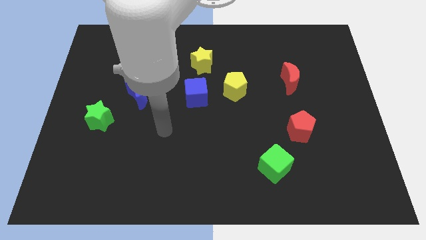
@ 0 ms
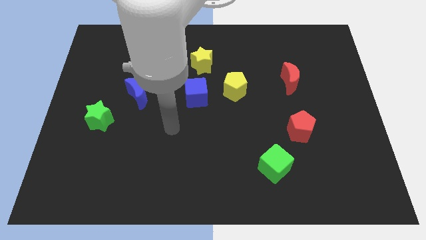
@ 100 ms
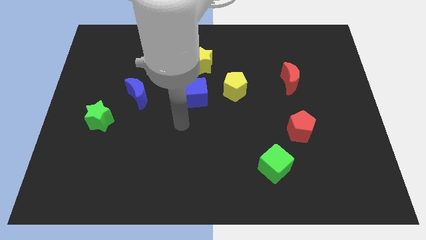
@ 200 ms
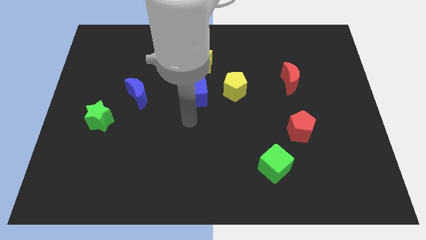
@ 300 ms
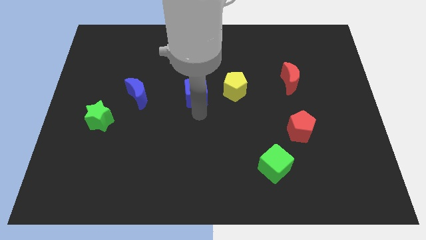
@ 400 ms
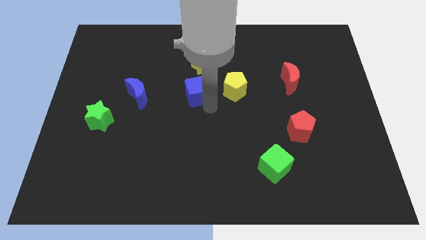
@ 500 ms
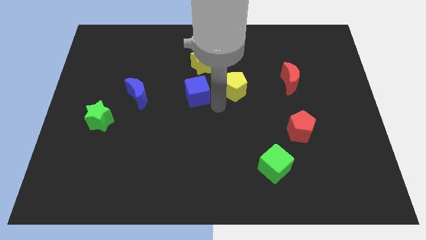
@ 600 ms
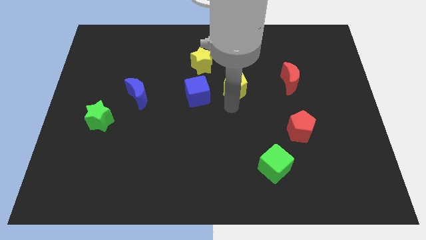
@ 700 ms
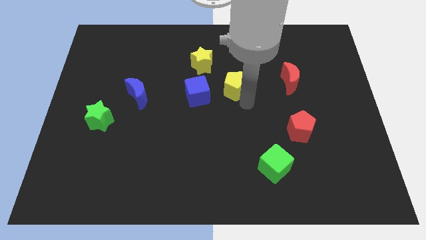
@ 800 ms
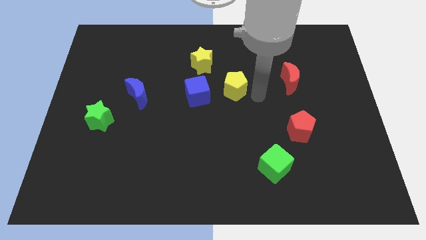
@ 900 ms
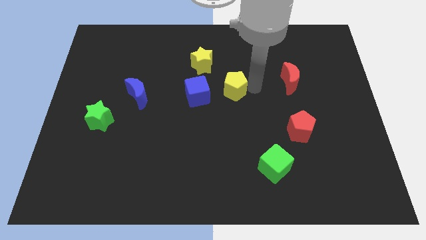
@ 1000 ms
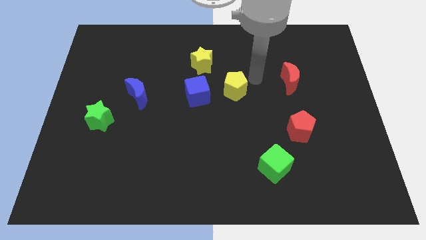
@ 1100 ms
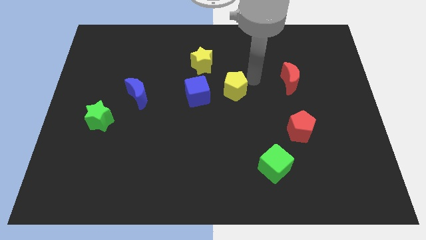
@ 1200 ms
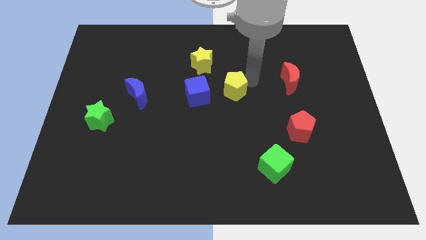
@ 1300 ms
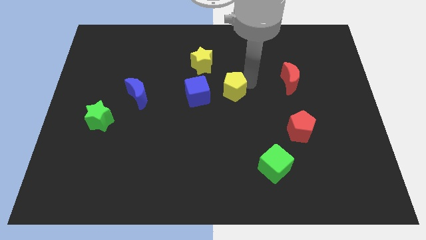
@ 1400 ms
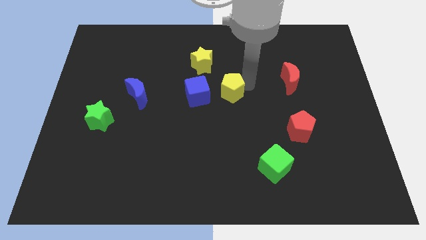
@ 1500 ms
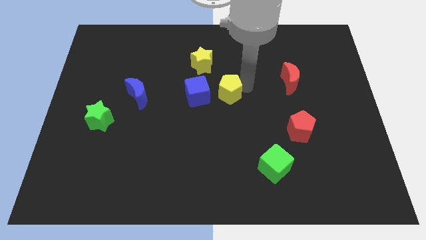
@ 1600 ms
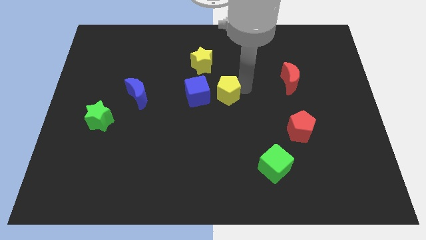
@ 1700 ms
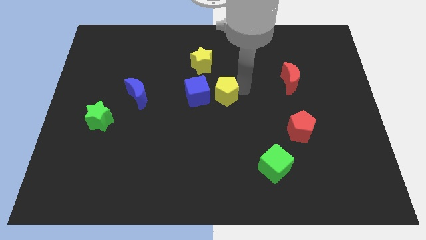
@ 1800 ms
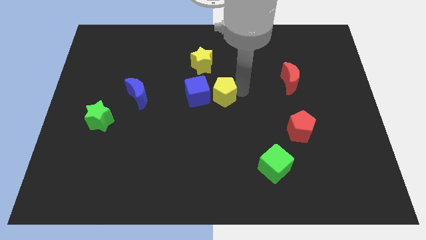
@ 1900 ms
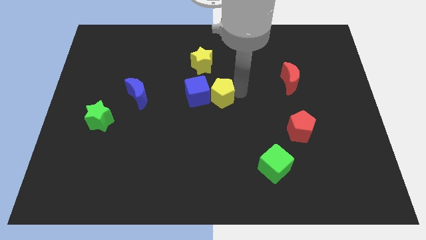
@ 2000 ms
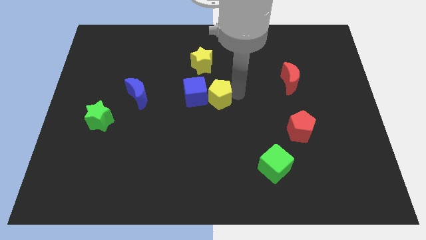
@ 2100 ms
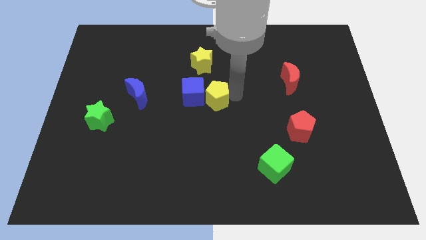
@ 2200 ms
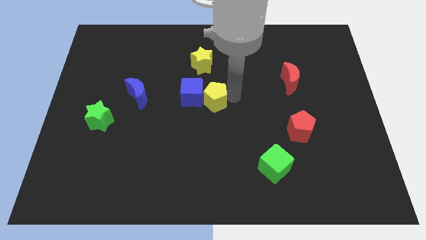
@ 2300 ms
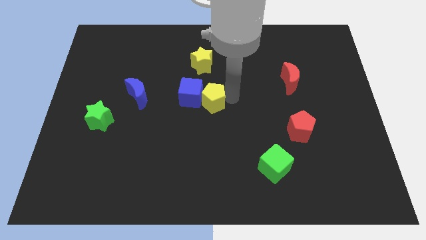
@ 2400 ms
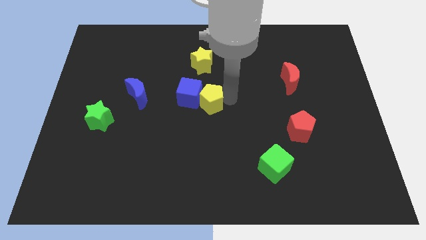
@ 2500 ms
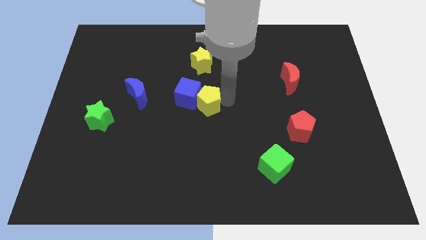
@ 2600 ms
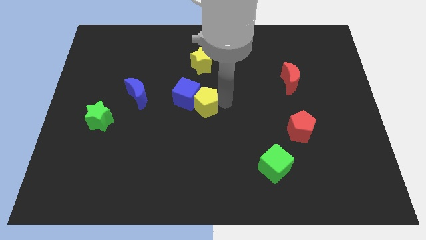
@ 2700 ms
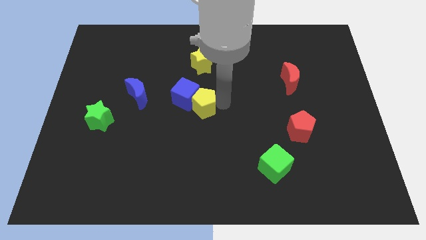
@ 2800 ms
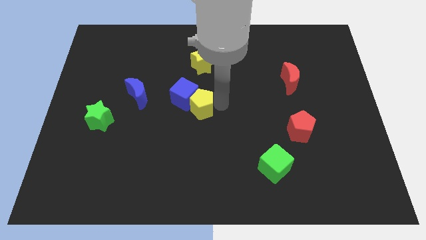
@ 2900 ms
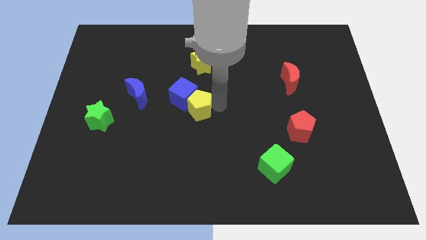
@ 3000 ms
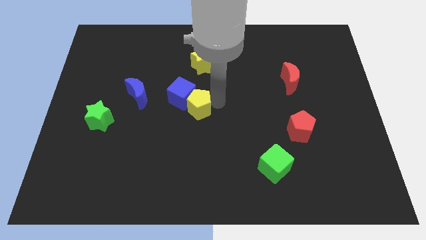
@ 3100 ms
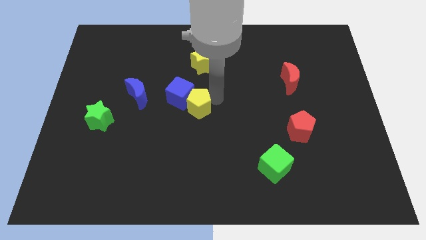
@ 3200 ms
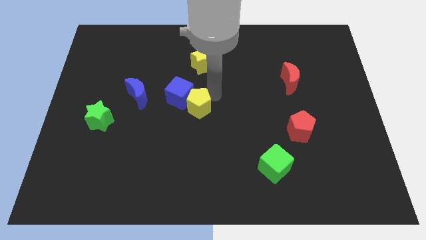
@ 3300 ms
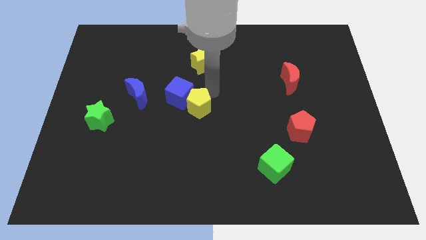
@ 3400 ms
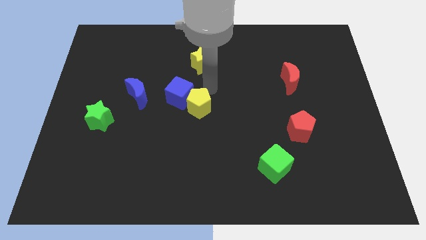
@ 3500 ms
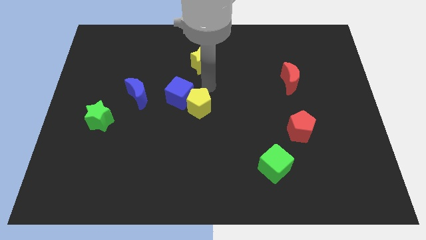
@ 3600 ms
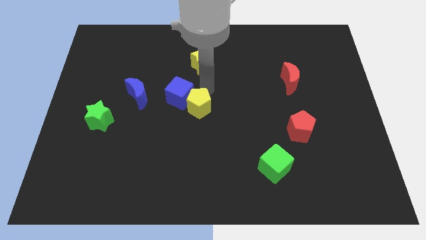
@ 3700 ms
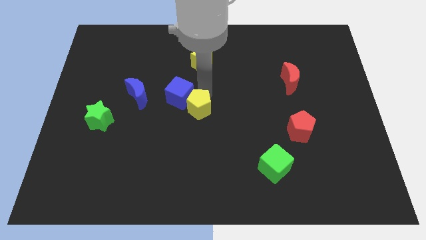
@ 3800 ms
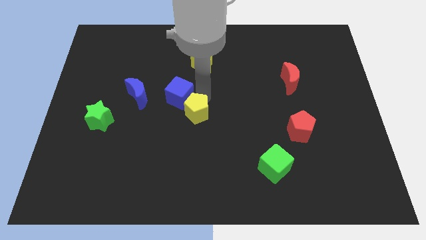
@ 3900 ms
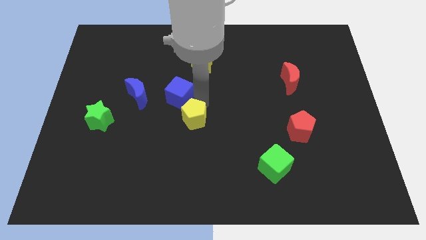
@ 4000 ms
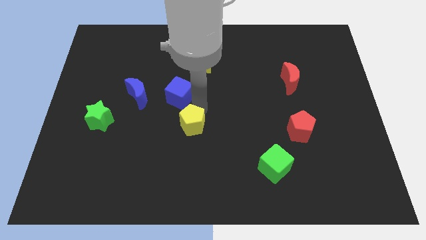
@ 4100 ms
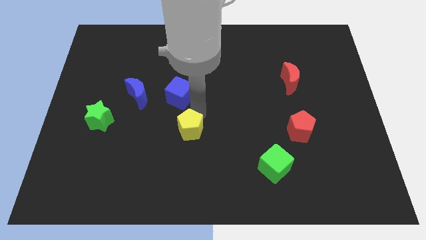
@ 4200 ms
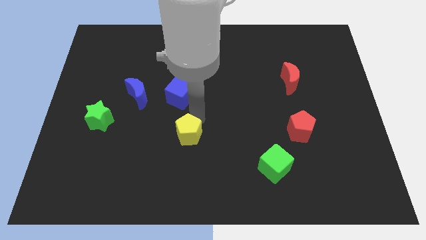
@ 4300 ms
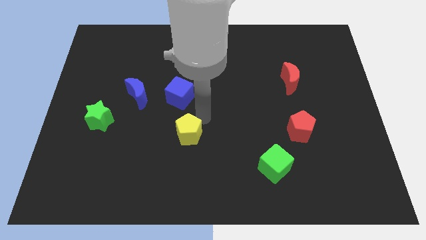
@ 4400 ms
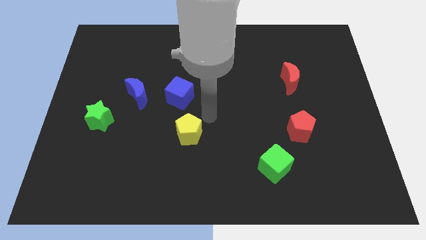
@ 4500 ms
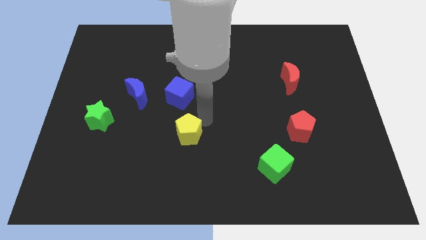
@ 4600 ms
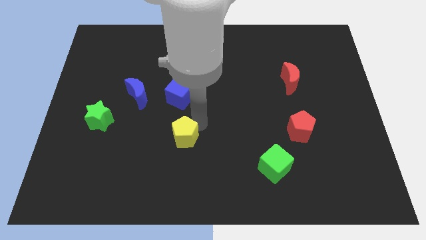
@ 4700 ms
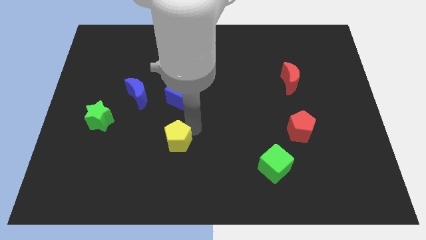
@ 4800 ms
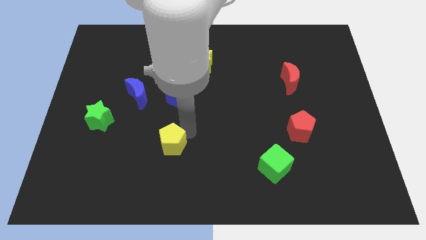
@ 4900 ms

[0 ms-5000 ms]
slide the yellow pentagon down and then to the left

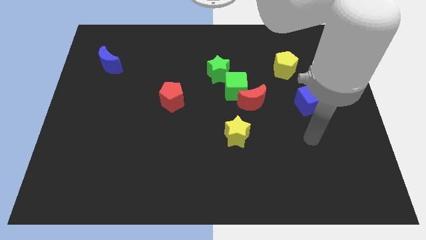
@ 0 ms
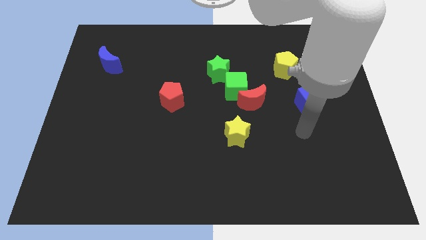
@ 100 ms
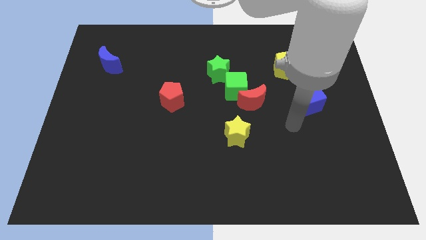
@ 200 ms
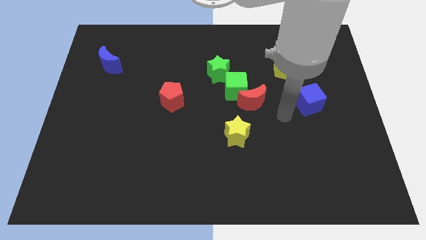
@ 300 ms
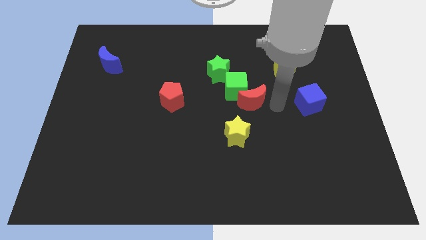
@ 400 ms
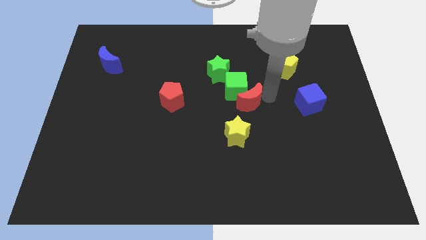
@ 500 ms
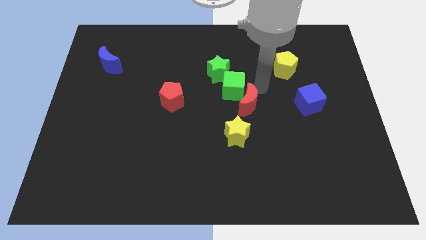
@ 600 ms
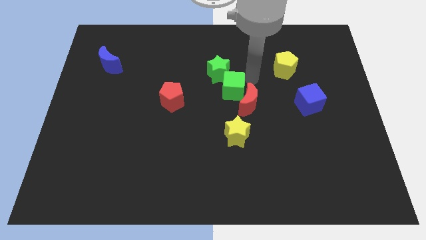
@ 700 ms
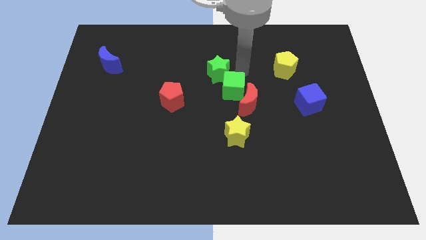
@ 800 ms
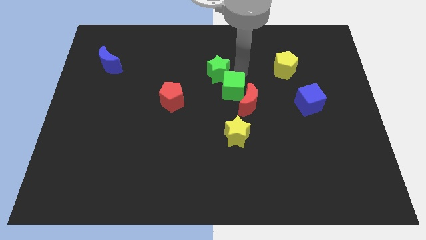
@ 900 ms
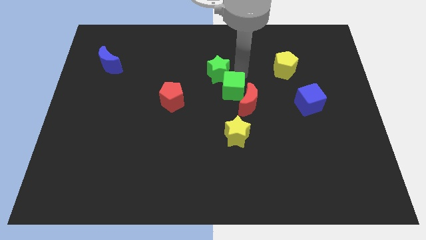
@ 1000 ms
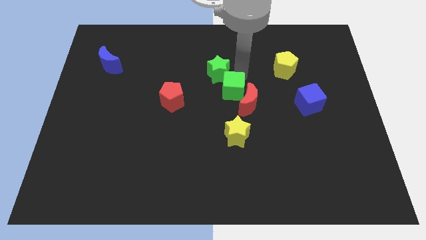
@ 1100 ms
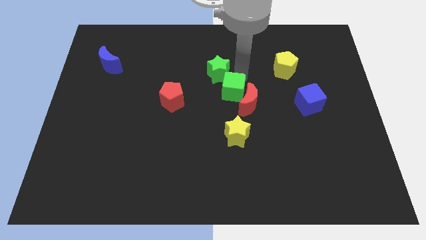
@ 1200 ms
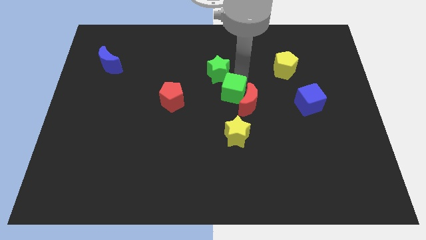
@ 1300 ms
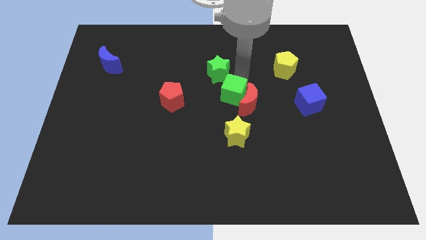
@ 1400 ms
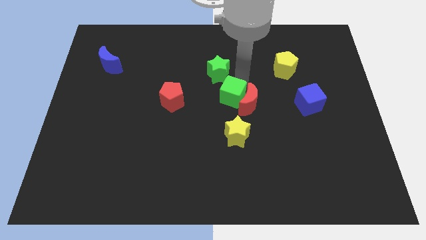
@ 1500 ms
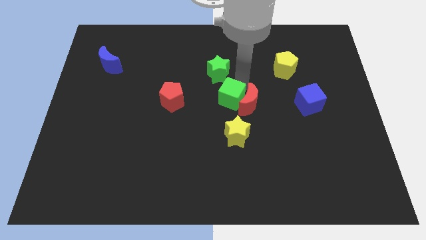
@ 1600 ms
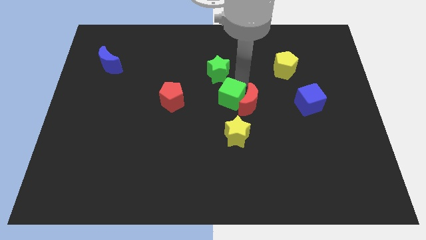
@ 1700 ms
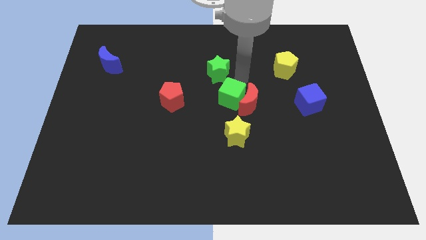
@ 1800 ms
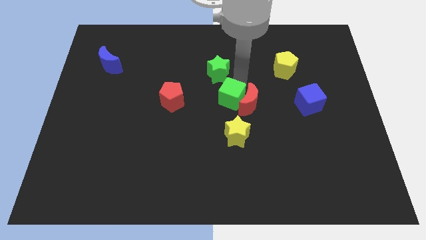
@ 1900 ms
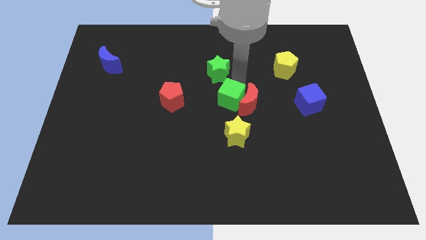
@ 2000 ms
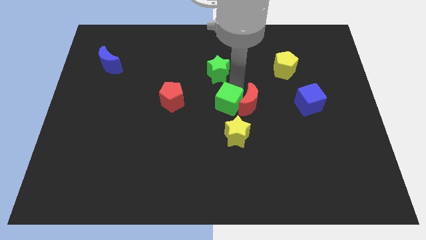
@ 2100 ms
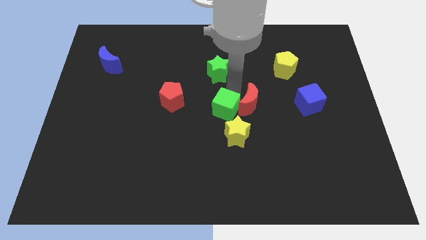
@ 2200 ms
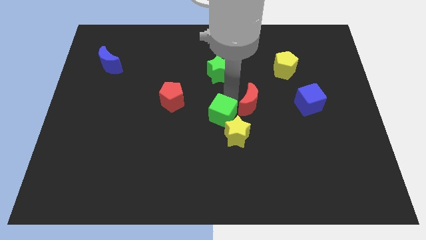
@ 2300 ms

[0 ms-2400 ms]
slightly move the green cube downwards

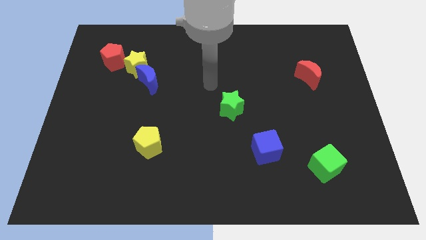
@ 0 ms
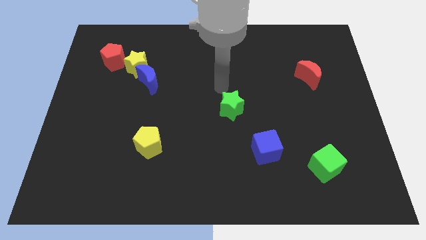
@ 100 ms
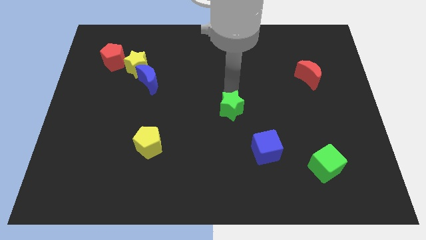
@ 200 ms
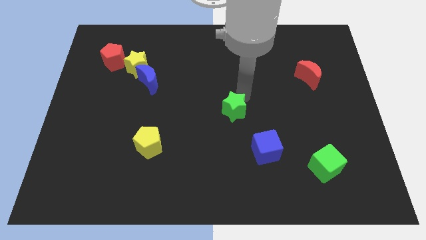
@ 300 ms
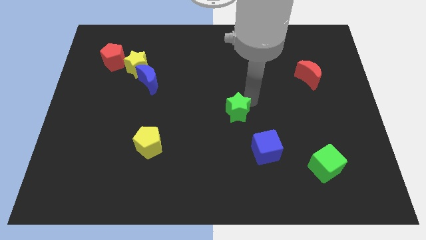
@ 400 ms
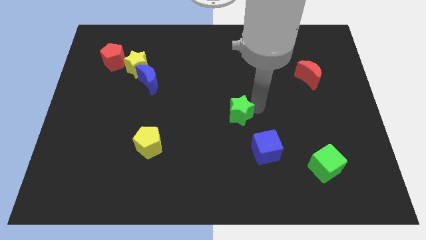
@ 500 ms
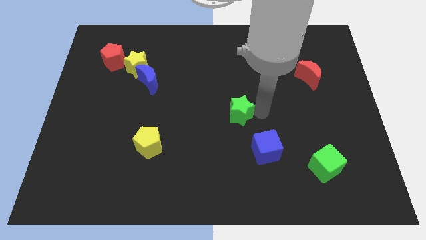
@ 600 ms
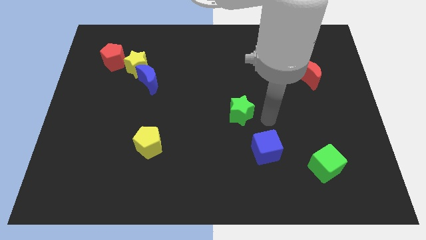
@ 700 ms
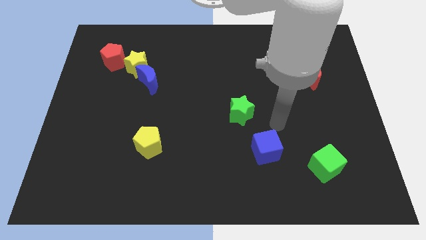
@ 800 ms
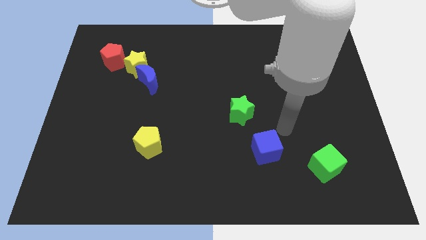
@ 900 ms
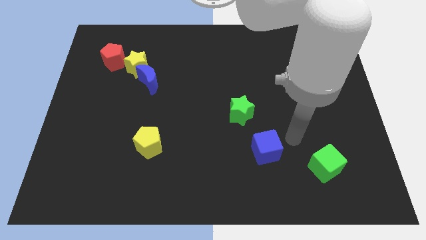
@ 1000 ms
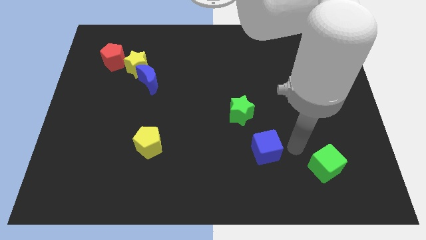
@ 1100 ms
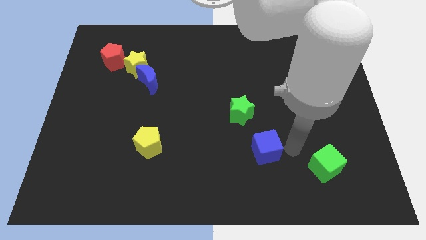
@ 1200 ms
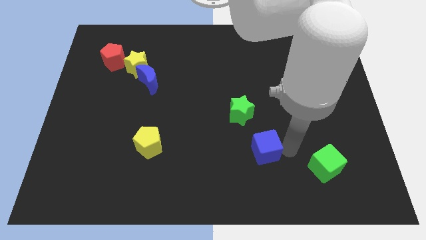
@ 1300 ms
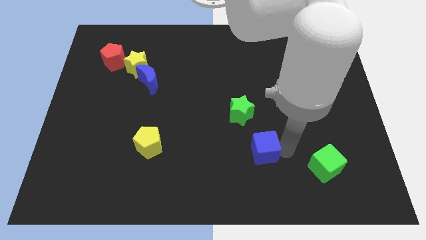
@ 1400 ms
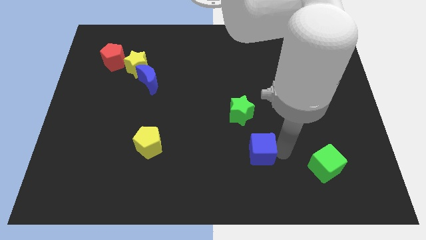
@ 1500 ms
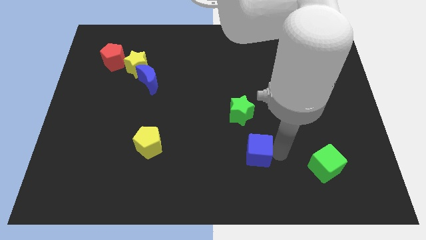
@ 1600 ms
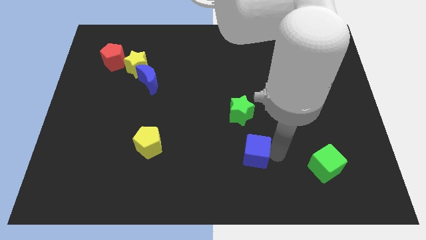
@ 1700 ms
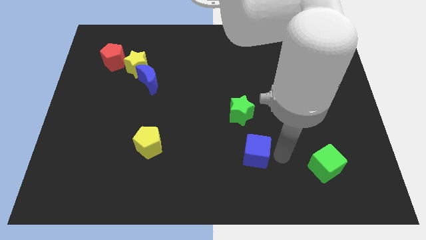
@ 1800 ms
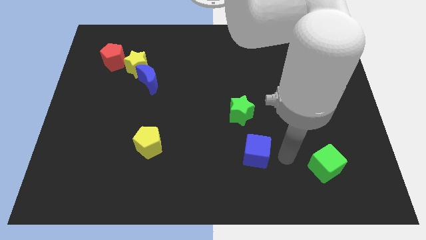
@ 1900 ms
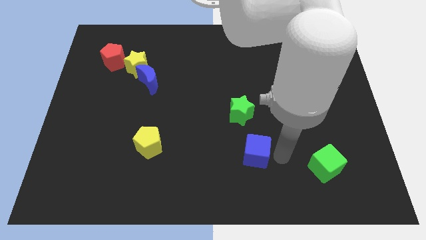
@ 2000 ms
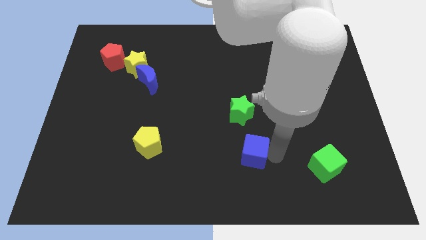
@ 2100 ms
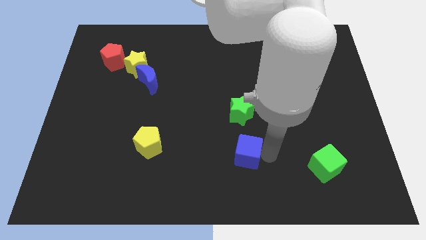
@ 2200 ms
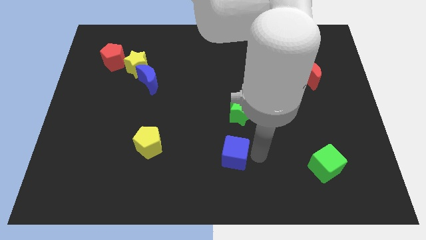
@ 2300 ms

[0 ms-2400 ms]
slightly slide the blue cube to the left
